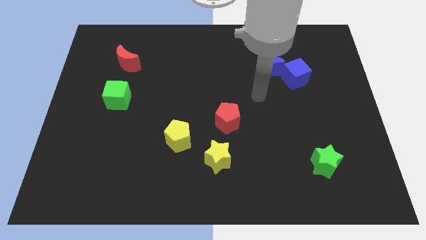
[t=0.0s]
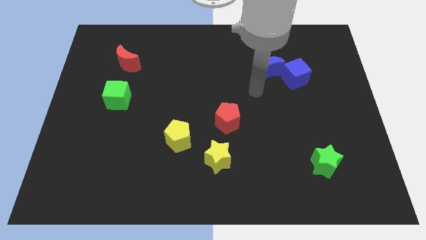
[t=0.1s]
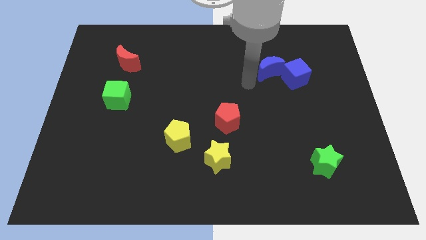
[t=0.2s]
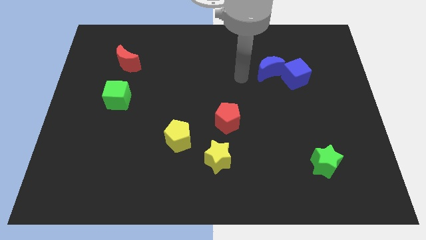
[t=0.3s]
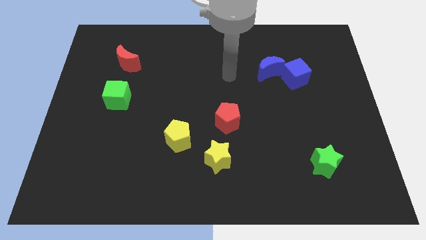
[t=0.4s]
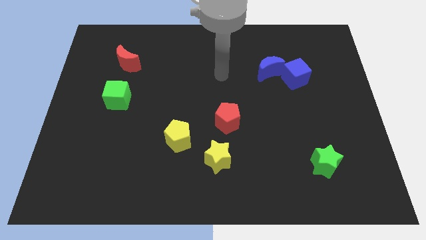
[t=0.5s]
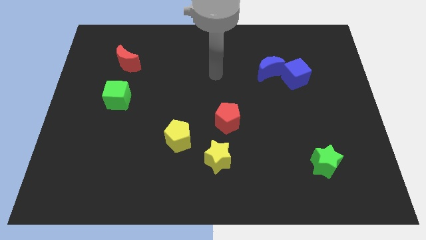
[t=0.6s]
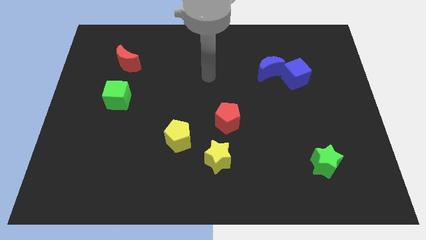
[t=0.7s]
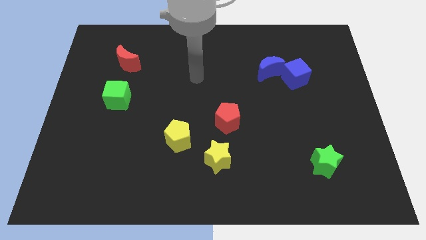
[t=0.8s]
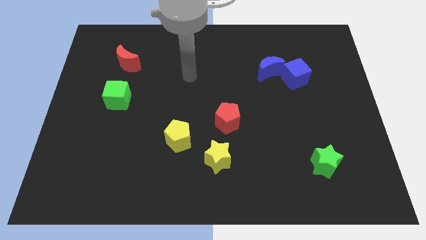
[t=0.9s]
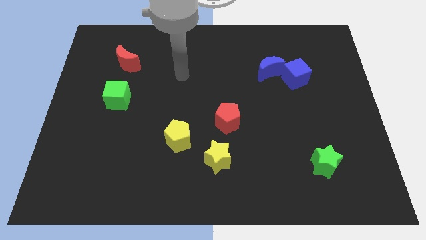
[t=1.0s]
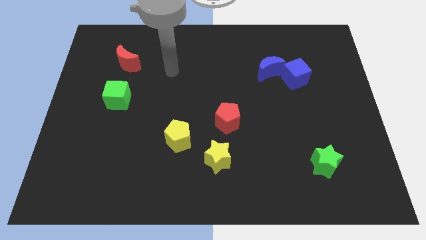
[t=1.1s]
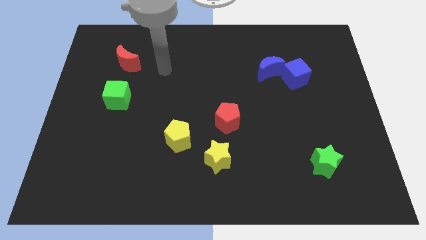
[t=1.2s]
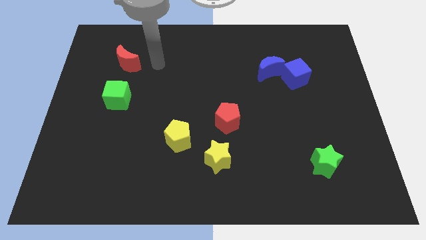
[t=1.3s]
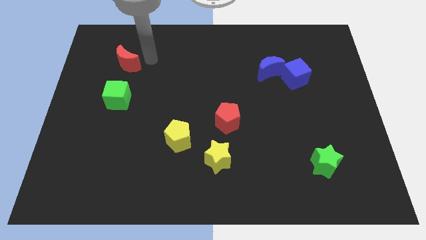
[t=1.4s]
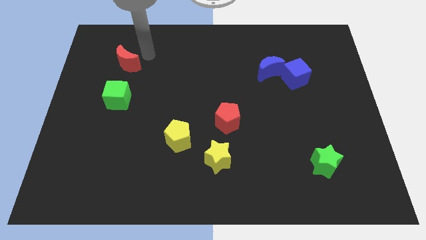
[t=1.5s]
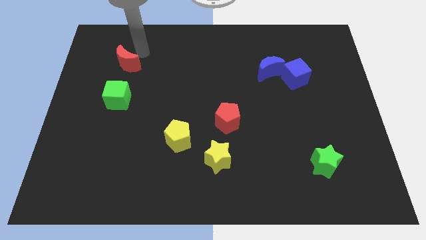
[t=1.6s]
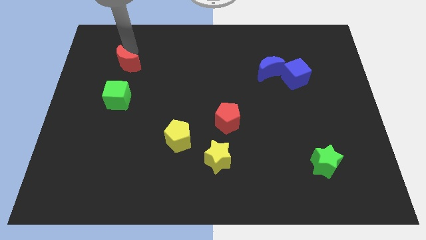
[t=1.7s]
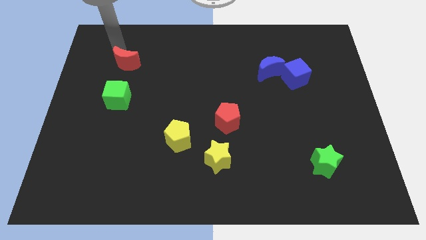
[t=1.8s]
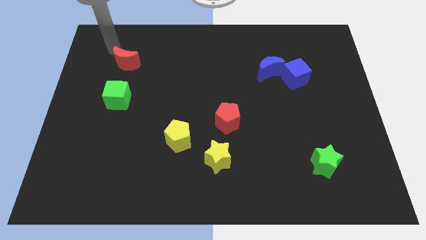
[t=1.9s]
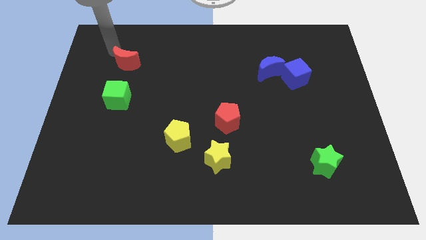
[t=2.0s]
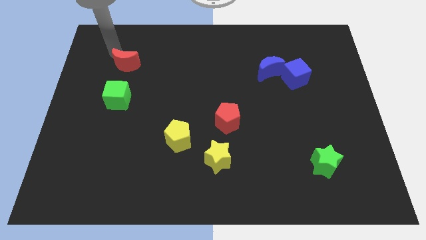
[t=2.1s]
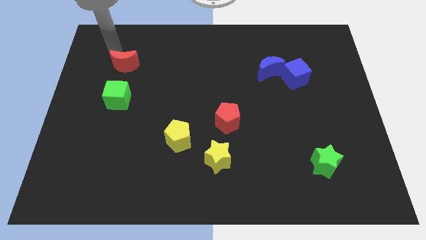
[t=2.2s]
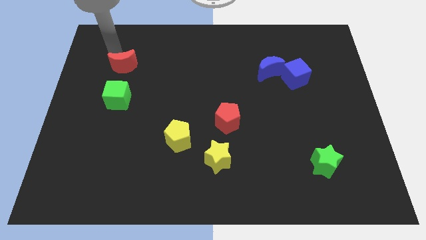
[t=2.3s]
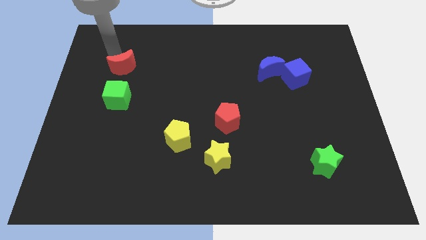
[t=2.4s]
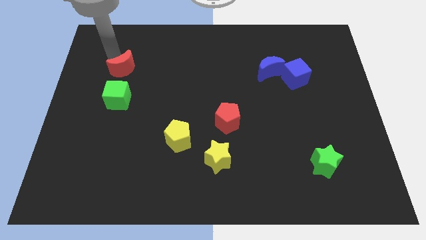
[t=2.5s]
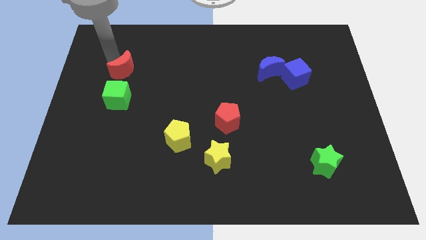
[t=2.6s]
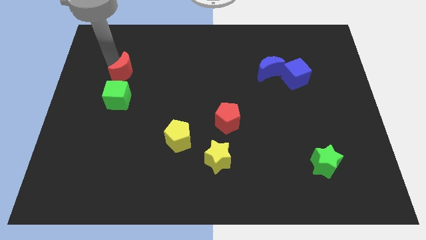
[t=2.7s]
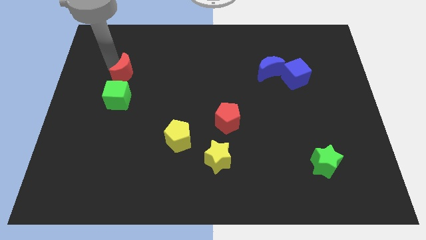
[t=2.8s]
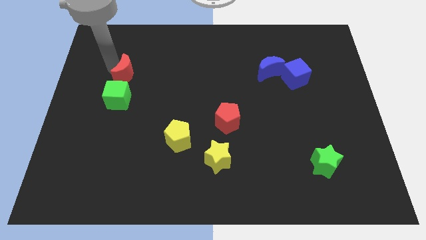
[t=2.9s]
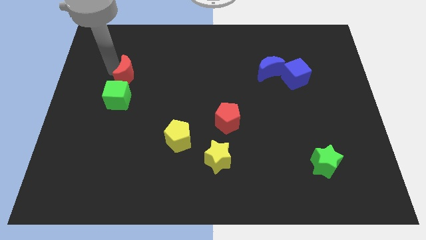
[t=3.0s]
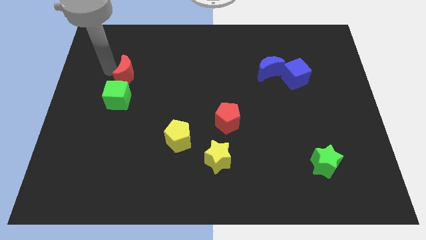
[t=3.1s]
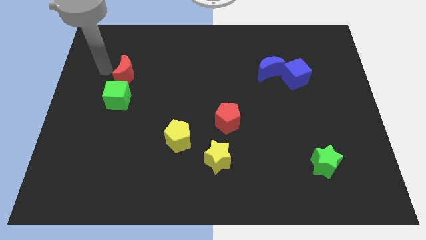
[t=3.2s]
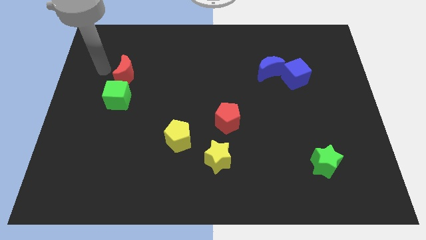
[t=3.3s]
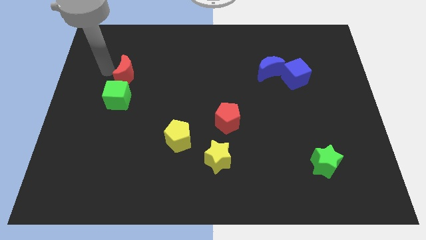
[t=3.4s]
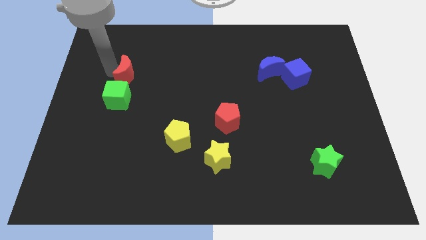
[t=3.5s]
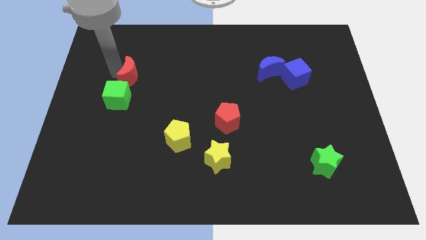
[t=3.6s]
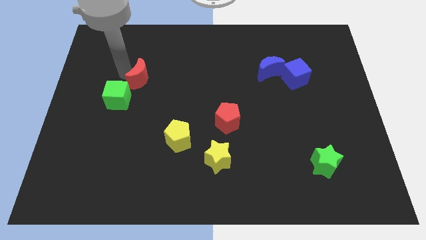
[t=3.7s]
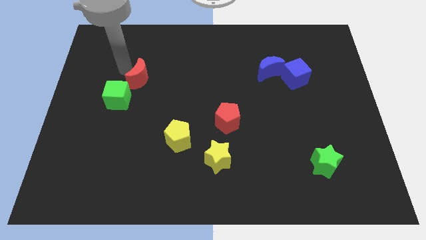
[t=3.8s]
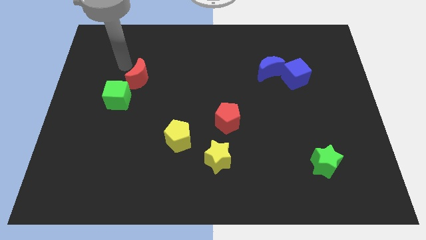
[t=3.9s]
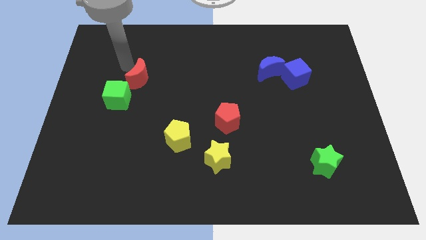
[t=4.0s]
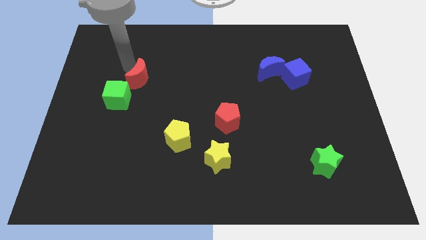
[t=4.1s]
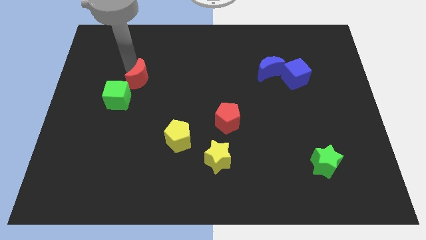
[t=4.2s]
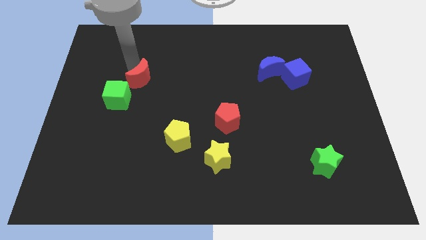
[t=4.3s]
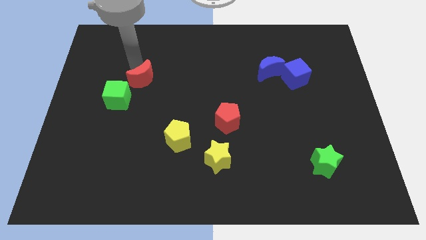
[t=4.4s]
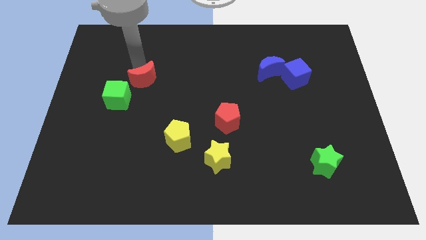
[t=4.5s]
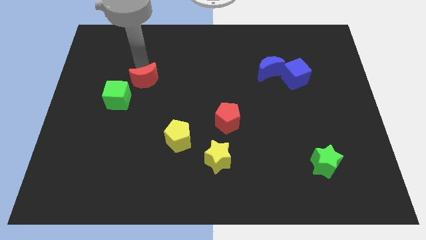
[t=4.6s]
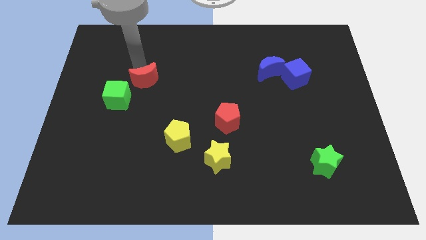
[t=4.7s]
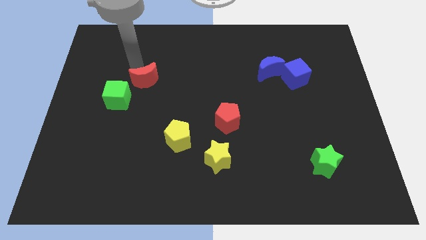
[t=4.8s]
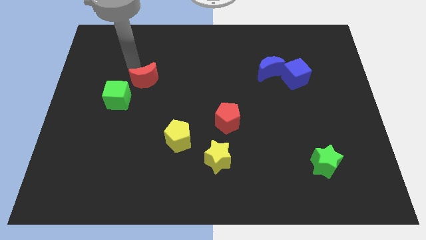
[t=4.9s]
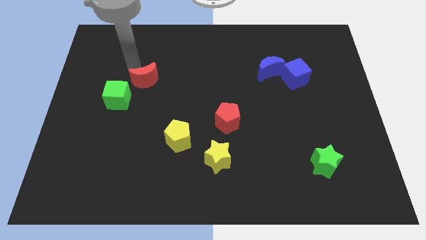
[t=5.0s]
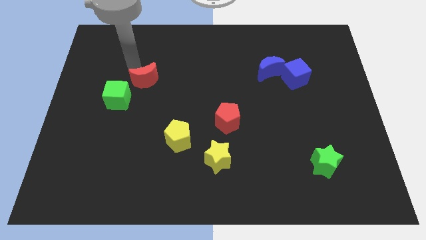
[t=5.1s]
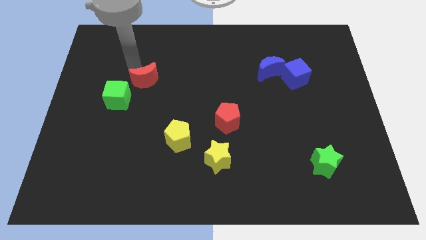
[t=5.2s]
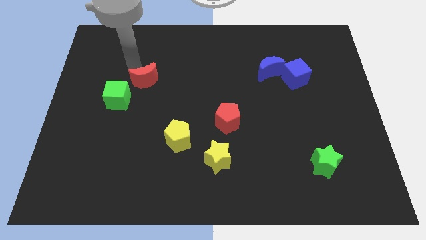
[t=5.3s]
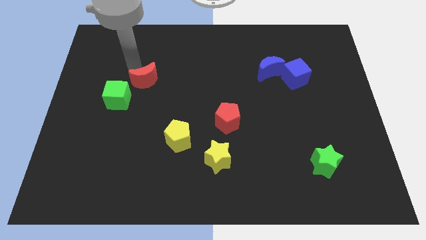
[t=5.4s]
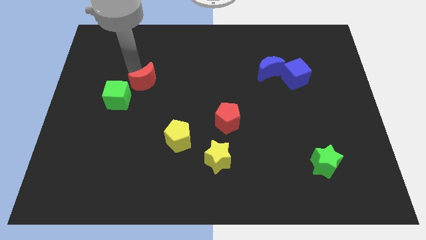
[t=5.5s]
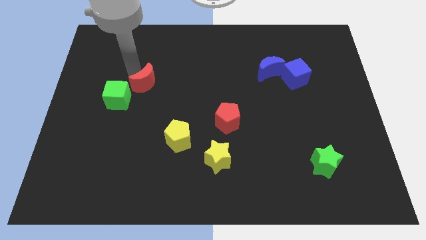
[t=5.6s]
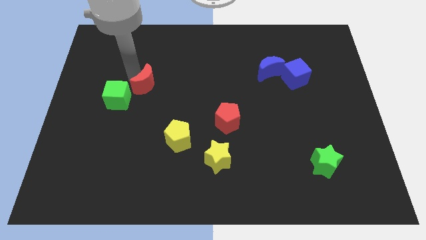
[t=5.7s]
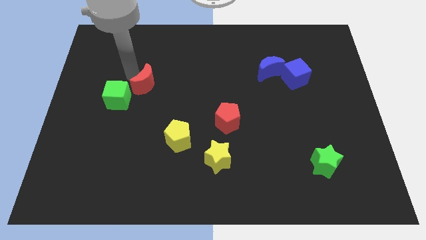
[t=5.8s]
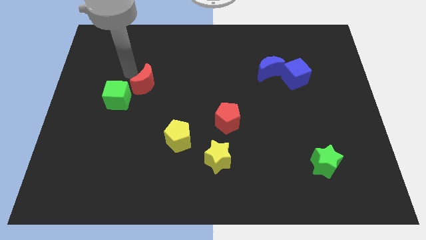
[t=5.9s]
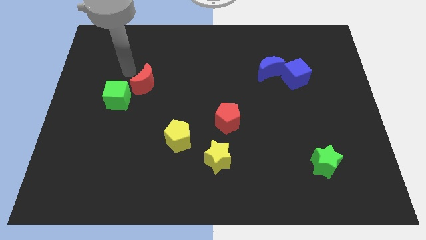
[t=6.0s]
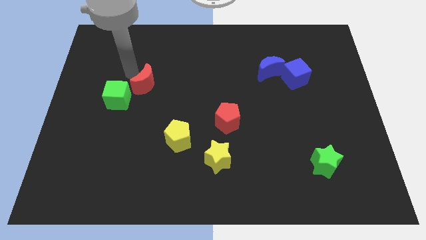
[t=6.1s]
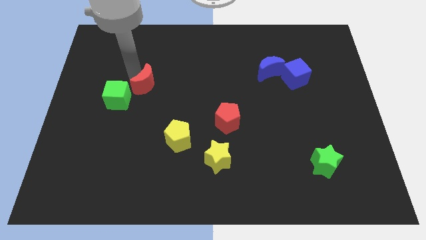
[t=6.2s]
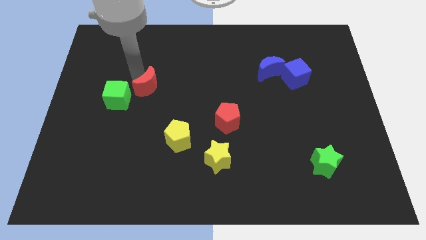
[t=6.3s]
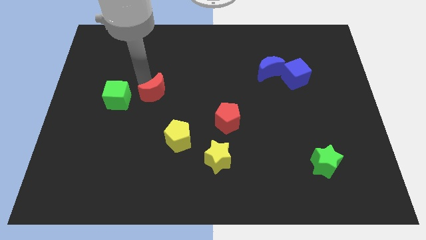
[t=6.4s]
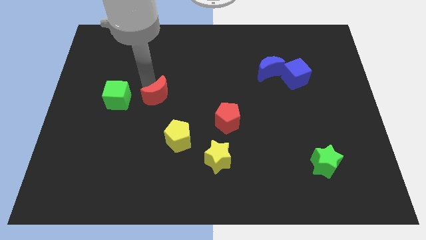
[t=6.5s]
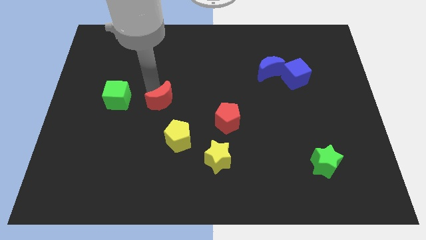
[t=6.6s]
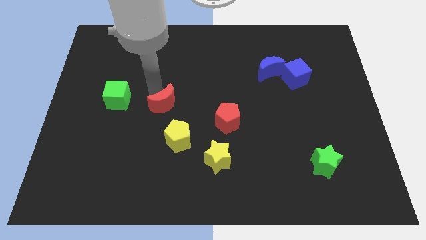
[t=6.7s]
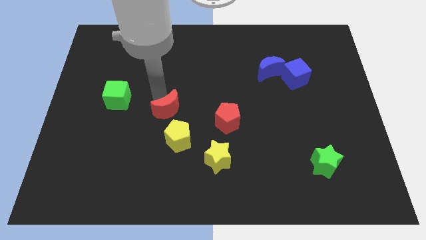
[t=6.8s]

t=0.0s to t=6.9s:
move the red moon just left of the red pentagon

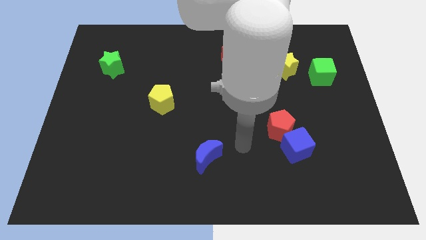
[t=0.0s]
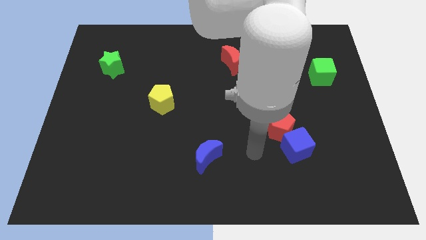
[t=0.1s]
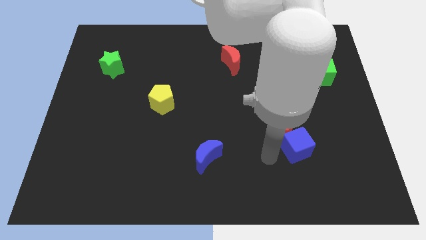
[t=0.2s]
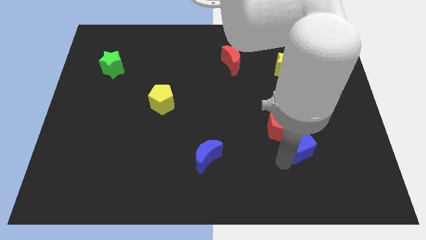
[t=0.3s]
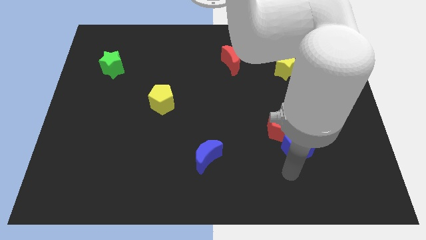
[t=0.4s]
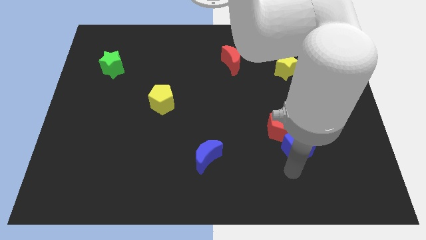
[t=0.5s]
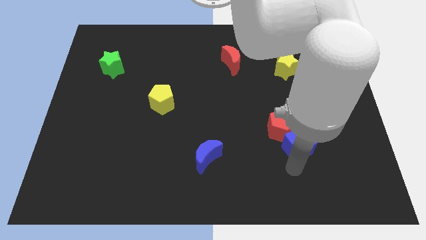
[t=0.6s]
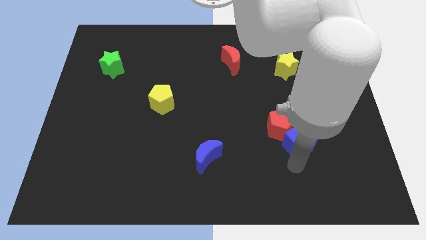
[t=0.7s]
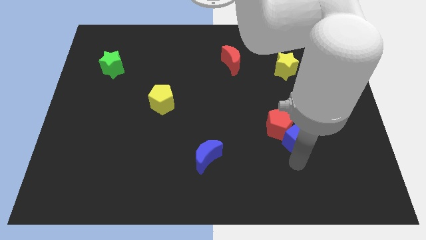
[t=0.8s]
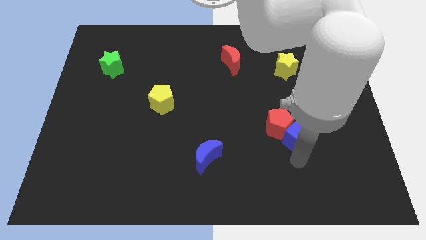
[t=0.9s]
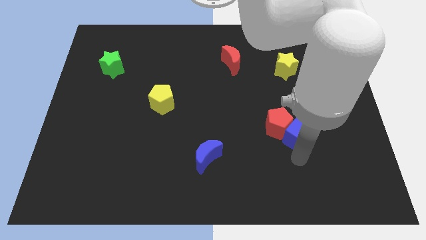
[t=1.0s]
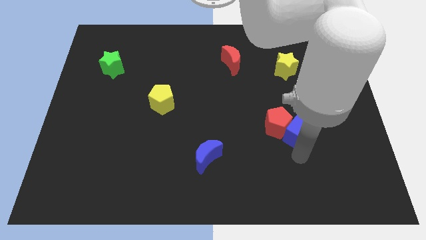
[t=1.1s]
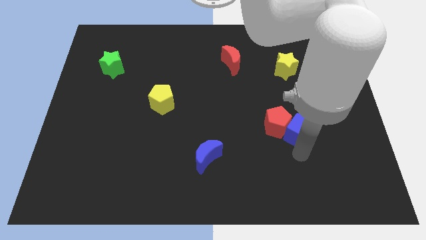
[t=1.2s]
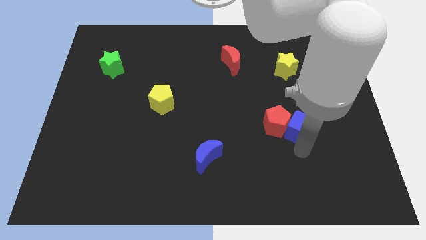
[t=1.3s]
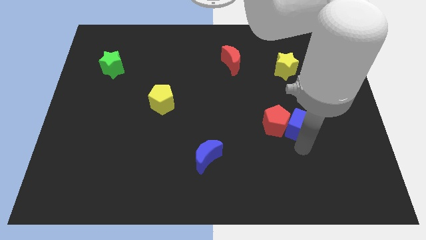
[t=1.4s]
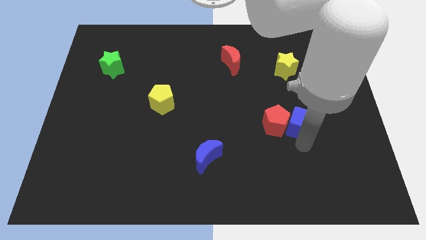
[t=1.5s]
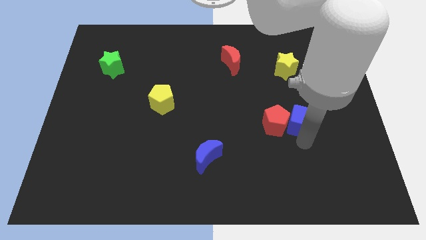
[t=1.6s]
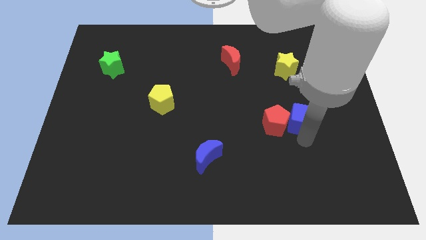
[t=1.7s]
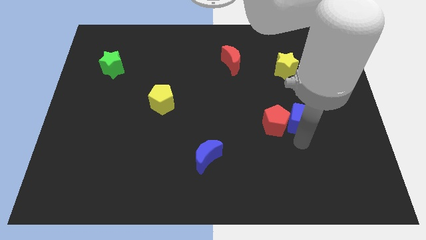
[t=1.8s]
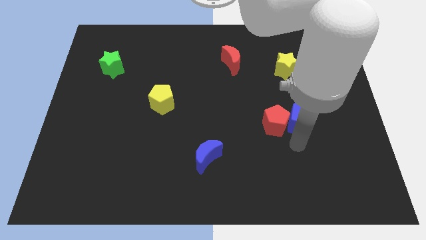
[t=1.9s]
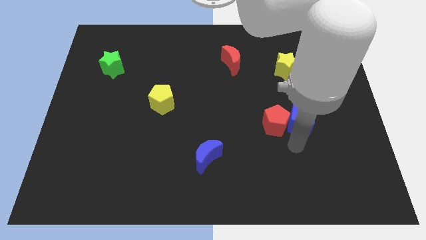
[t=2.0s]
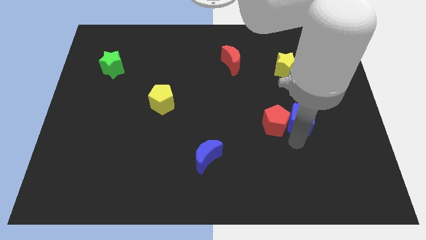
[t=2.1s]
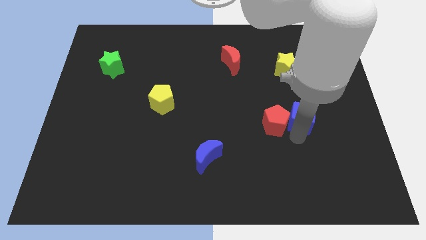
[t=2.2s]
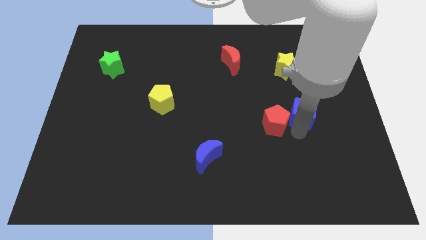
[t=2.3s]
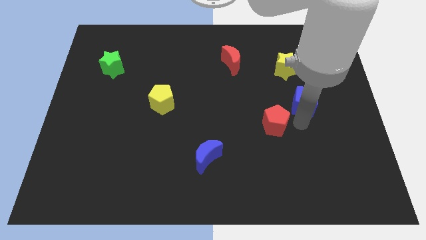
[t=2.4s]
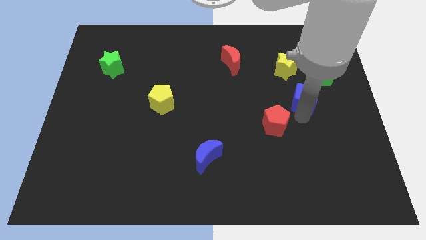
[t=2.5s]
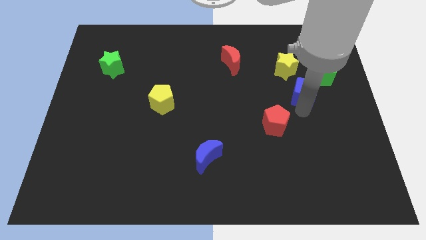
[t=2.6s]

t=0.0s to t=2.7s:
push the blue cube to the bottom right of the yellow star
